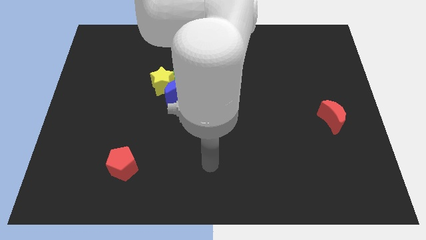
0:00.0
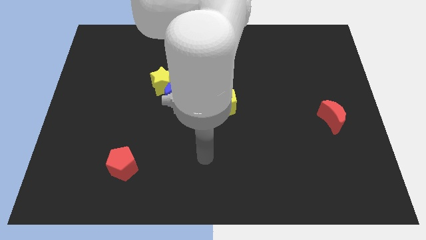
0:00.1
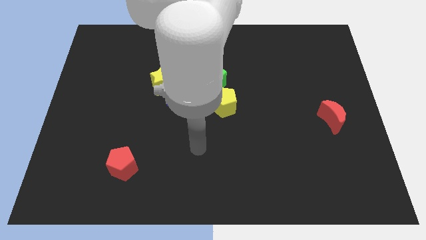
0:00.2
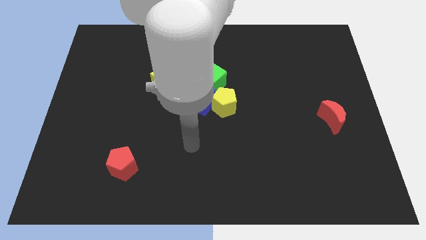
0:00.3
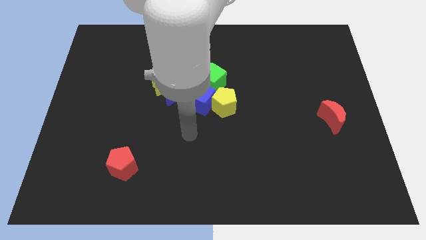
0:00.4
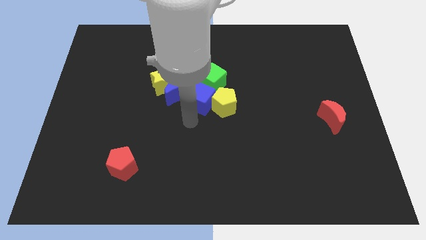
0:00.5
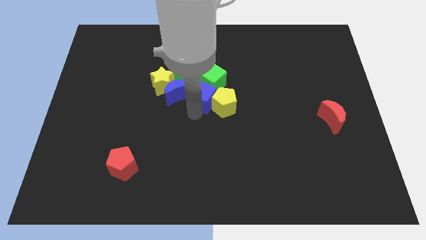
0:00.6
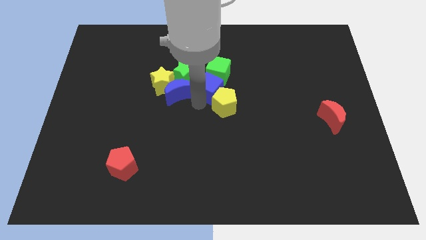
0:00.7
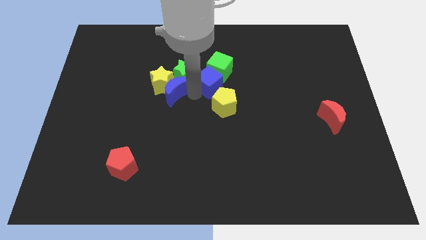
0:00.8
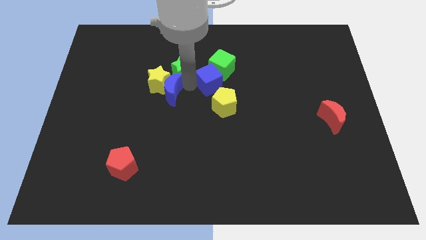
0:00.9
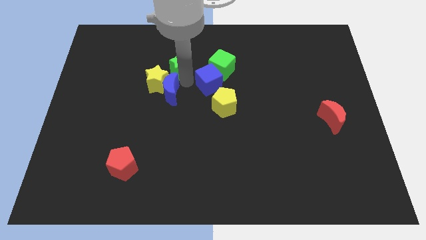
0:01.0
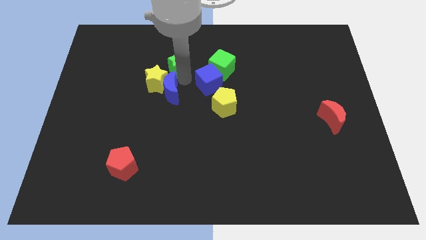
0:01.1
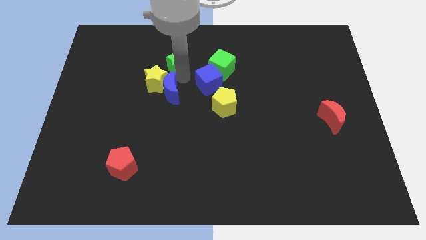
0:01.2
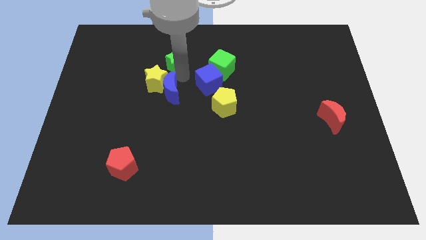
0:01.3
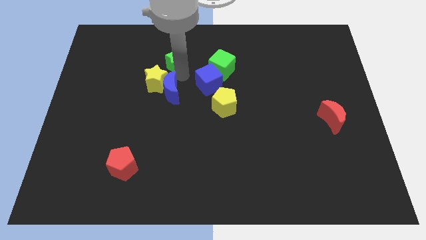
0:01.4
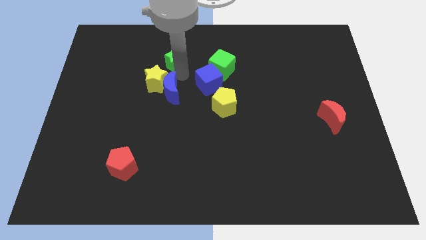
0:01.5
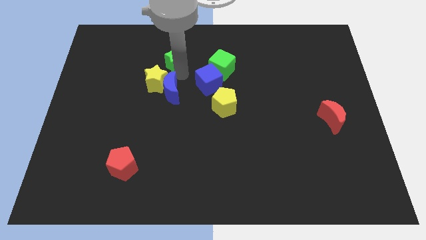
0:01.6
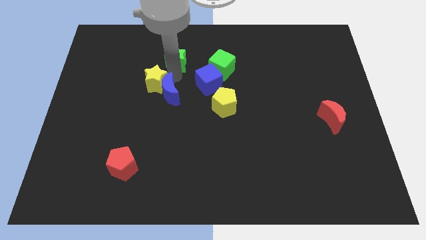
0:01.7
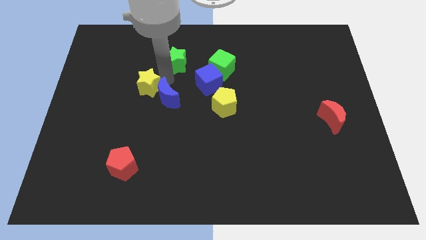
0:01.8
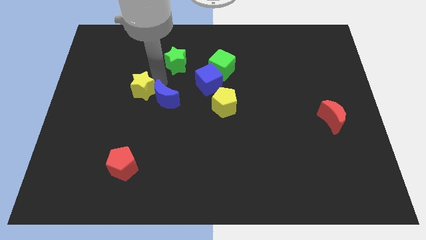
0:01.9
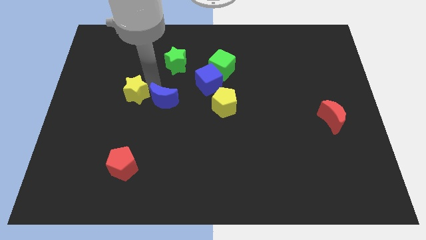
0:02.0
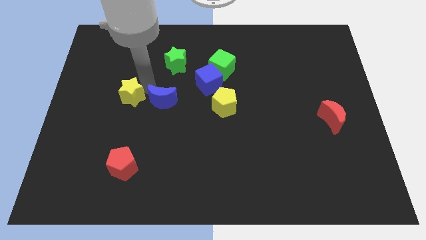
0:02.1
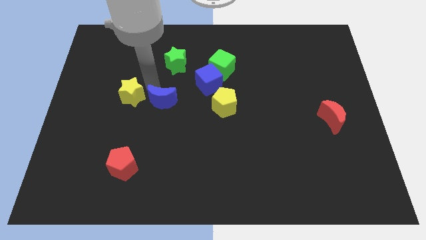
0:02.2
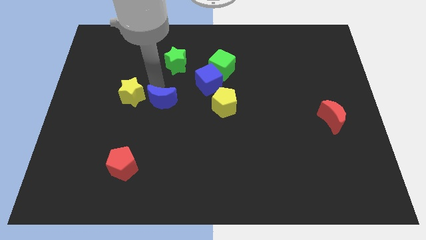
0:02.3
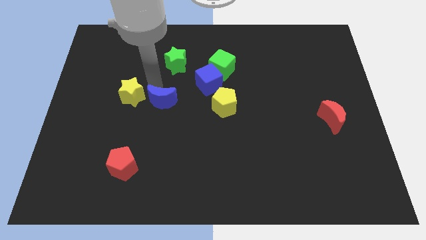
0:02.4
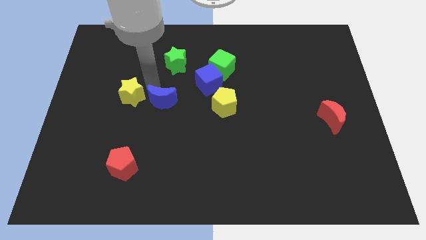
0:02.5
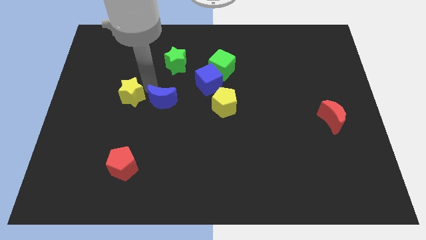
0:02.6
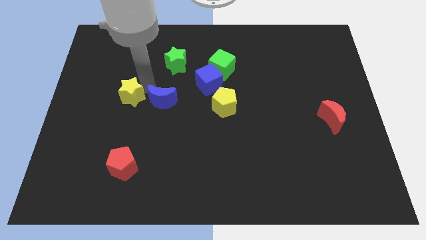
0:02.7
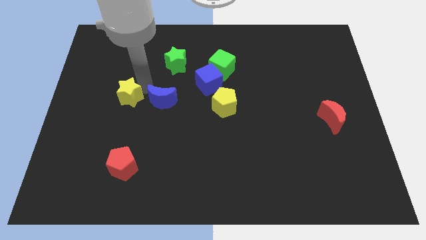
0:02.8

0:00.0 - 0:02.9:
move the yellow star away from the blue moon and green star

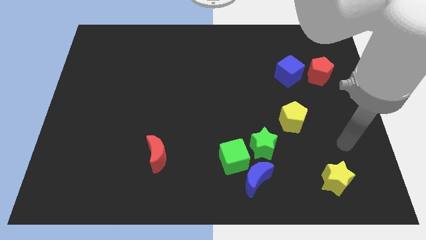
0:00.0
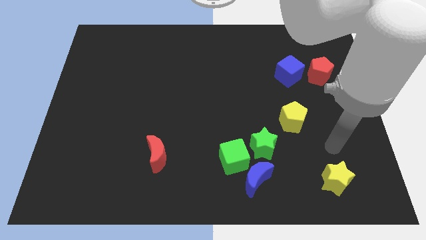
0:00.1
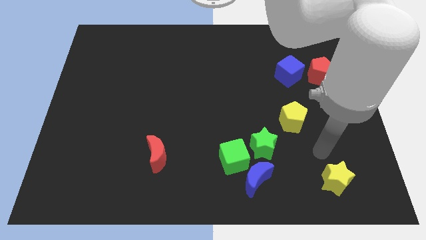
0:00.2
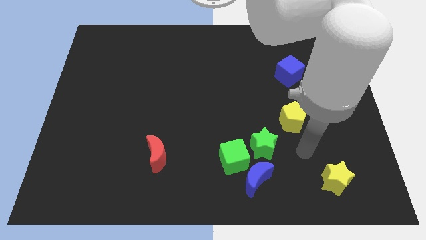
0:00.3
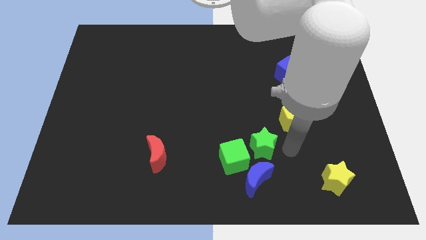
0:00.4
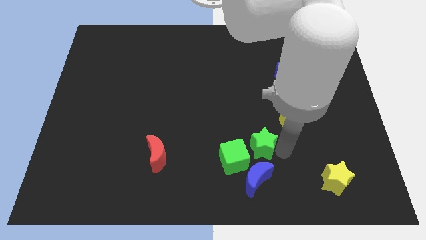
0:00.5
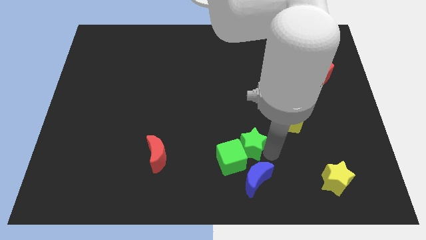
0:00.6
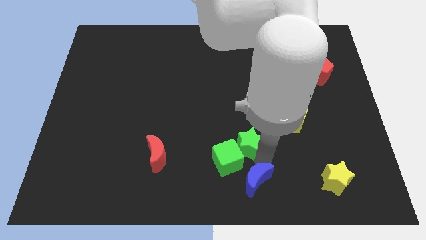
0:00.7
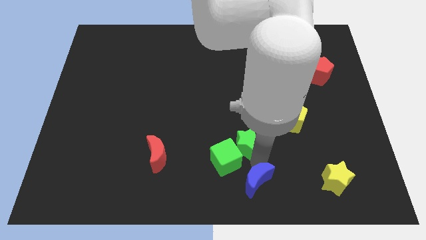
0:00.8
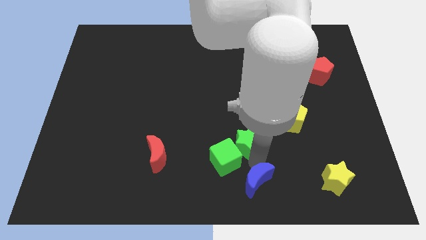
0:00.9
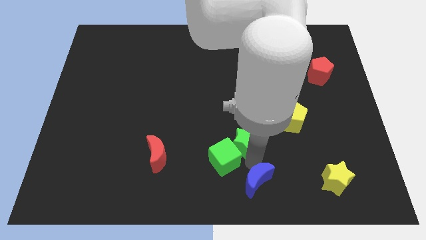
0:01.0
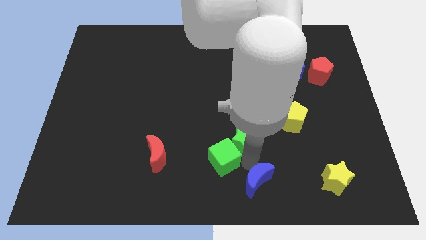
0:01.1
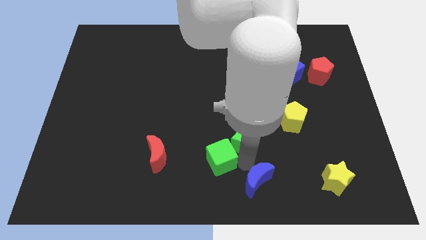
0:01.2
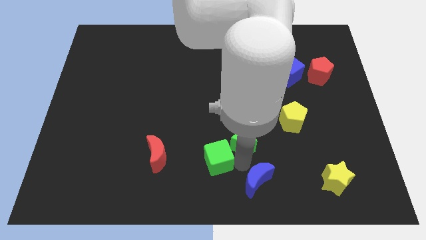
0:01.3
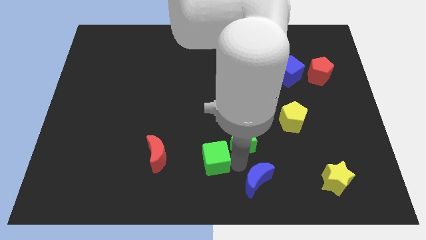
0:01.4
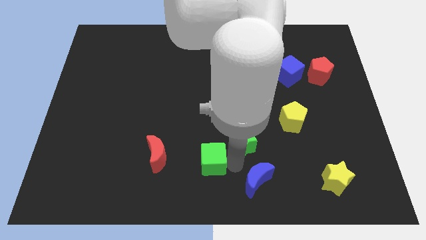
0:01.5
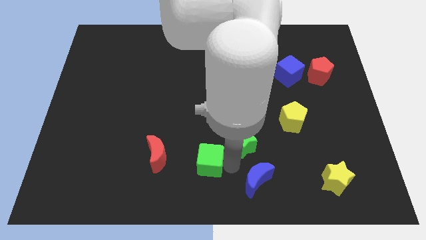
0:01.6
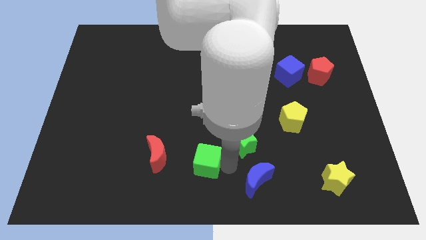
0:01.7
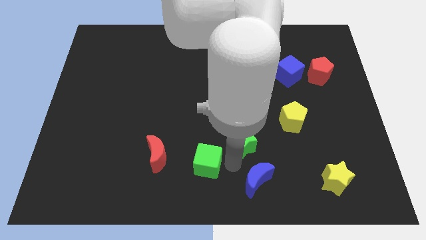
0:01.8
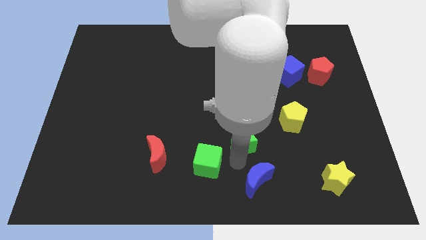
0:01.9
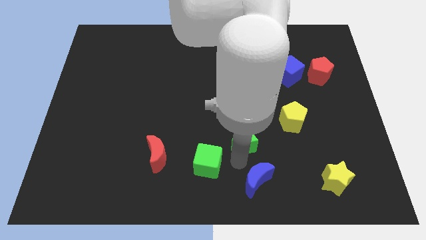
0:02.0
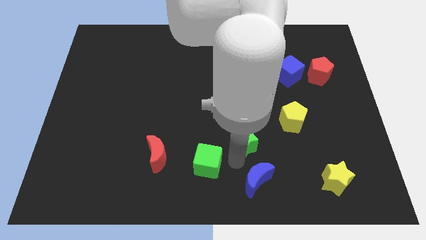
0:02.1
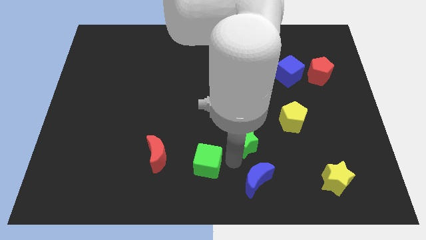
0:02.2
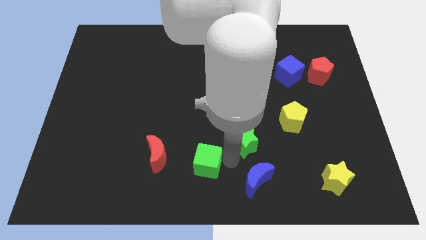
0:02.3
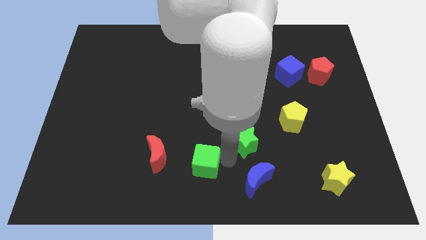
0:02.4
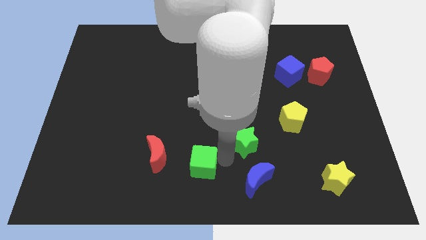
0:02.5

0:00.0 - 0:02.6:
move the green cube away from the blue moon and green star

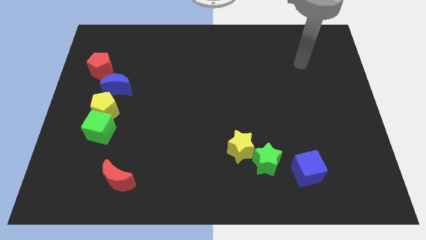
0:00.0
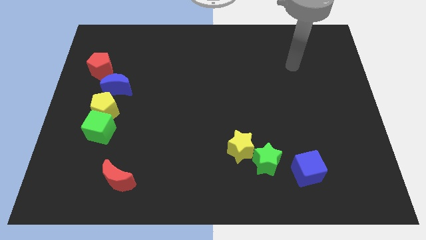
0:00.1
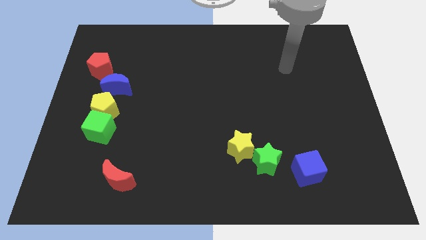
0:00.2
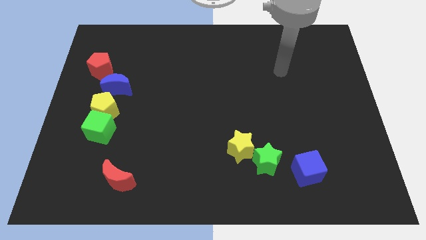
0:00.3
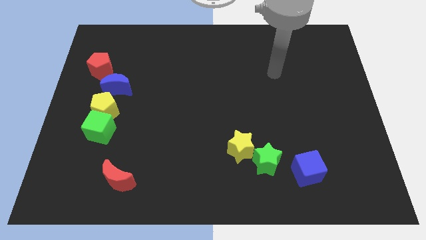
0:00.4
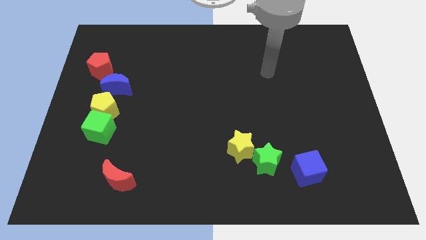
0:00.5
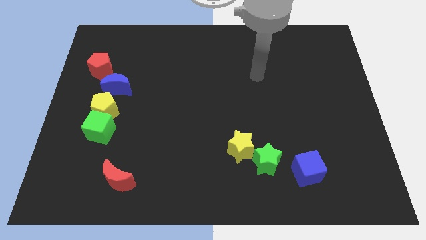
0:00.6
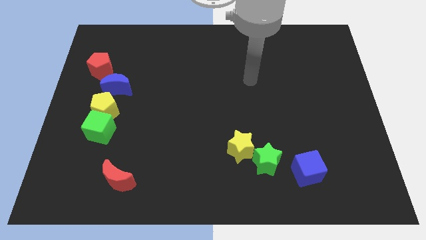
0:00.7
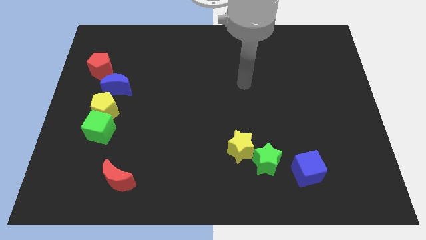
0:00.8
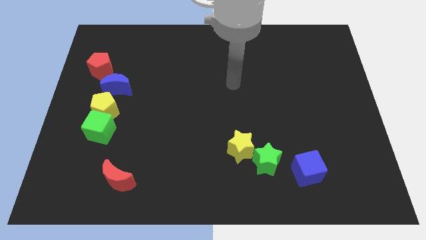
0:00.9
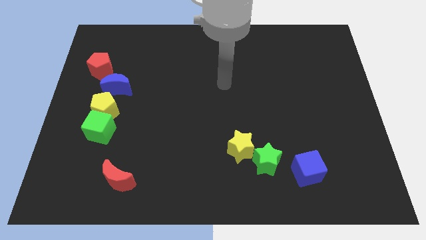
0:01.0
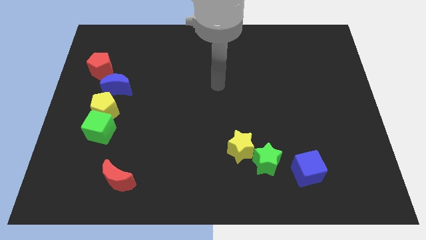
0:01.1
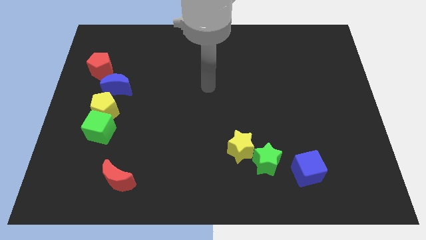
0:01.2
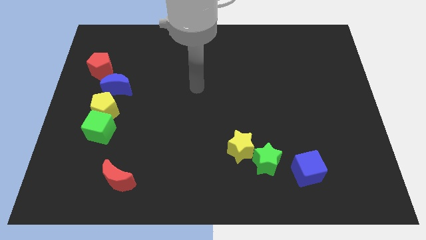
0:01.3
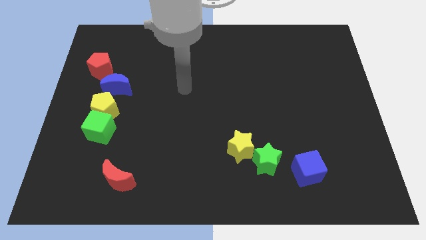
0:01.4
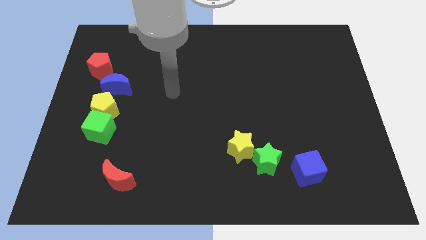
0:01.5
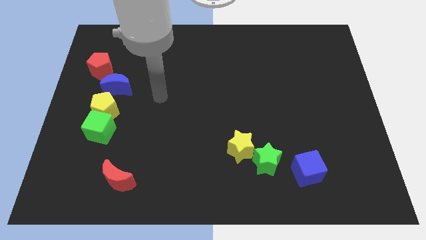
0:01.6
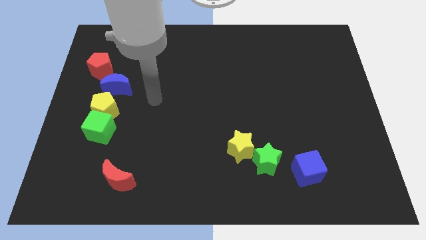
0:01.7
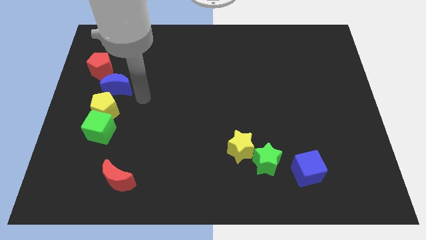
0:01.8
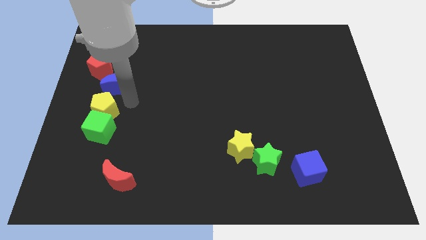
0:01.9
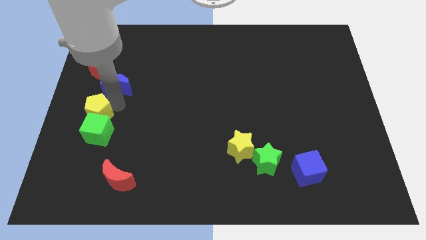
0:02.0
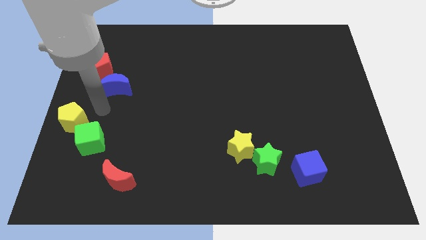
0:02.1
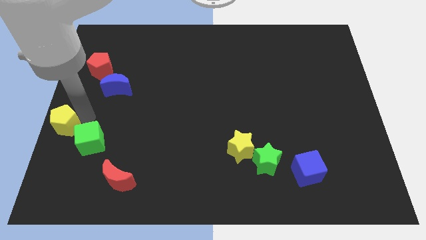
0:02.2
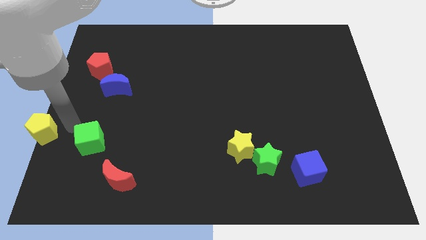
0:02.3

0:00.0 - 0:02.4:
move the green cube away from the yellow pentagon

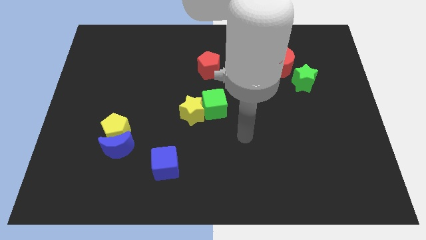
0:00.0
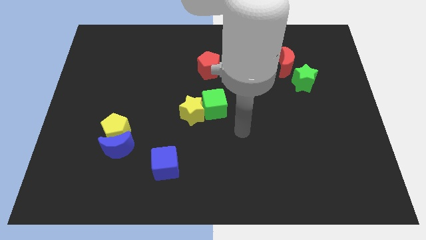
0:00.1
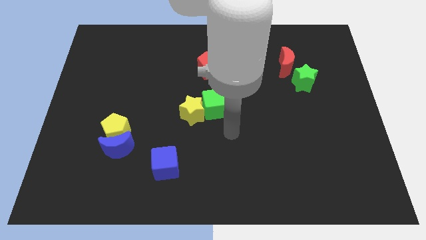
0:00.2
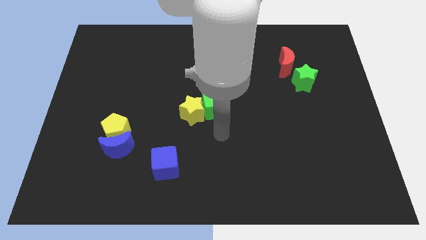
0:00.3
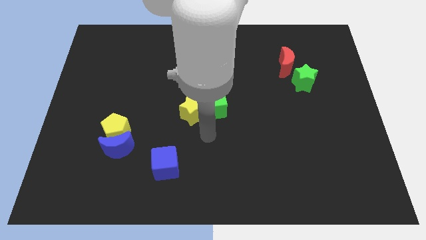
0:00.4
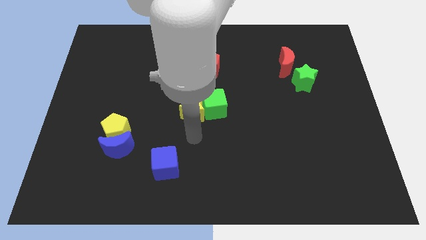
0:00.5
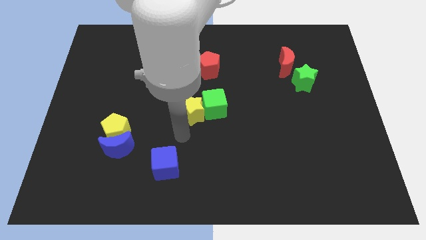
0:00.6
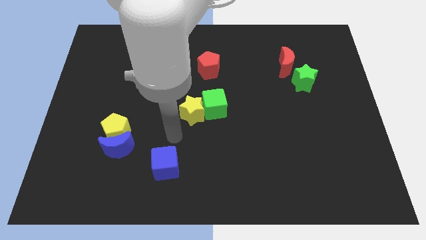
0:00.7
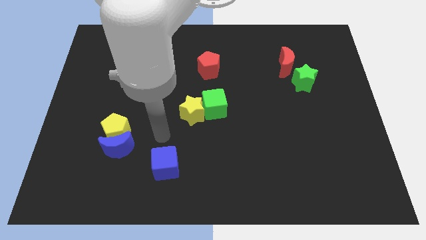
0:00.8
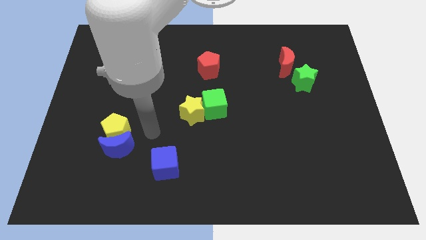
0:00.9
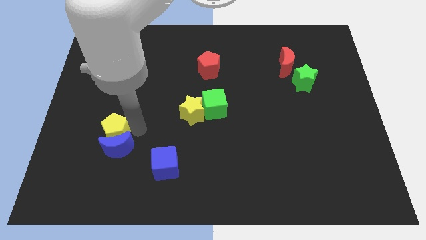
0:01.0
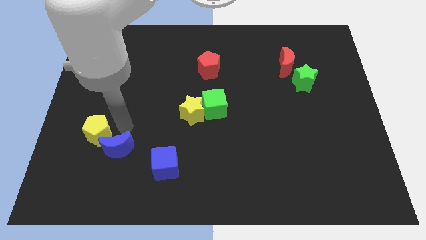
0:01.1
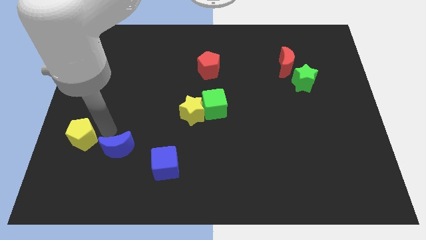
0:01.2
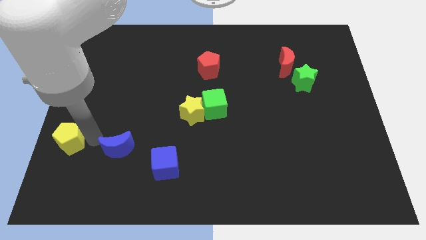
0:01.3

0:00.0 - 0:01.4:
pull the blue moon apart from the yellow pentagon
